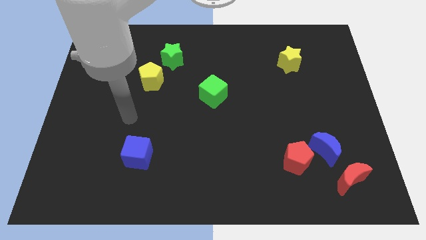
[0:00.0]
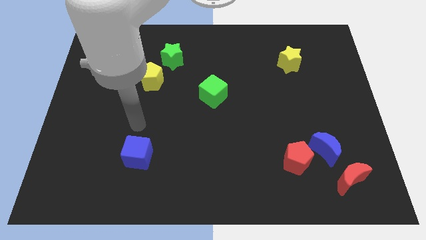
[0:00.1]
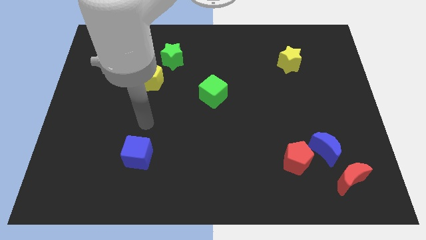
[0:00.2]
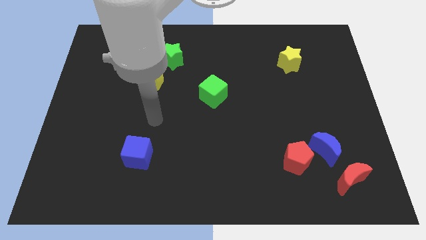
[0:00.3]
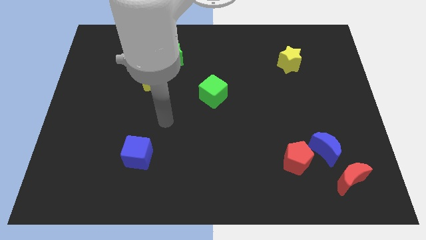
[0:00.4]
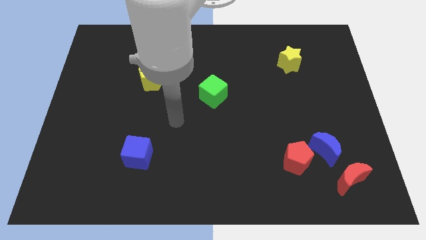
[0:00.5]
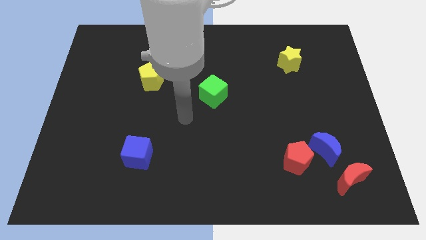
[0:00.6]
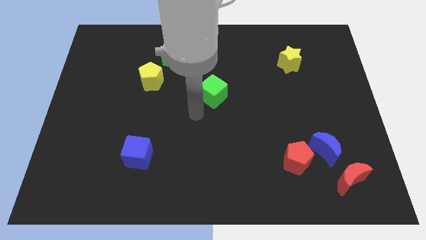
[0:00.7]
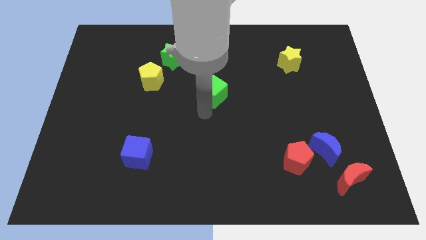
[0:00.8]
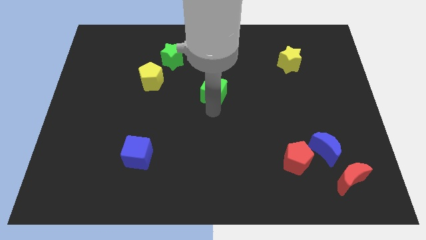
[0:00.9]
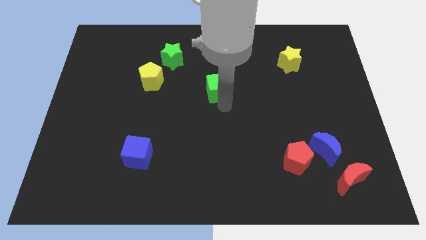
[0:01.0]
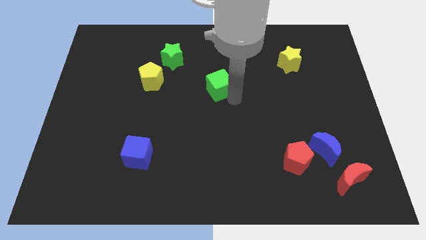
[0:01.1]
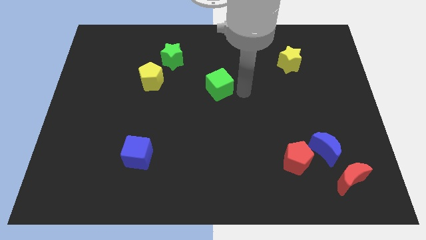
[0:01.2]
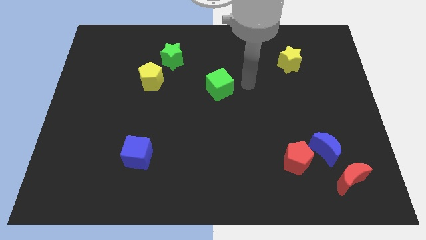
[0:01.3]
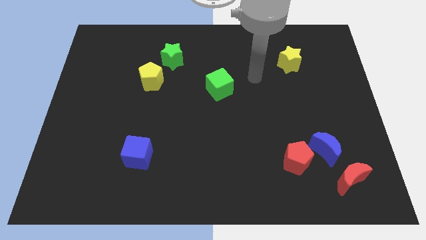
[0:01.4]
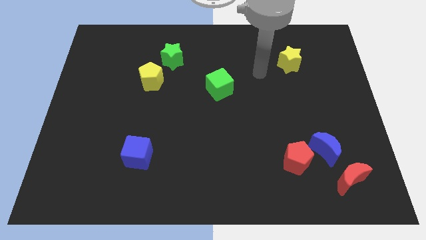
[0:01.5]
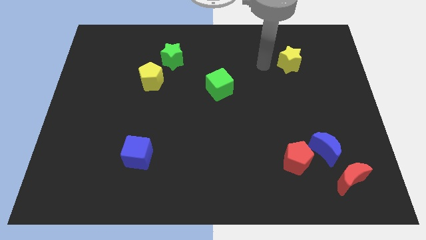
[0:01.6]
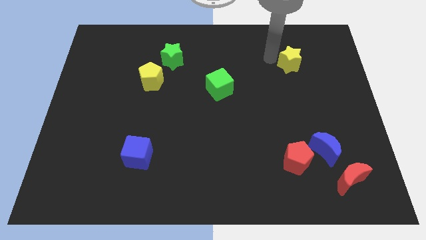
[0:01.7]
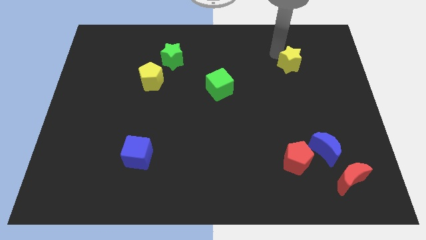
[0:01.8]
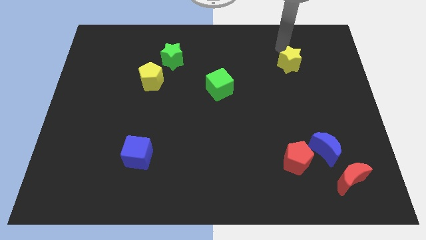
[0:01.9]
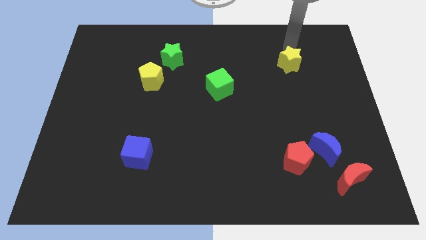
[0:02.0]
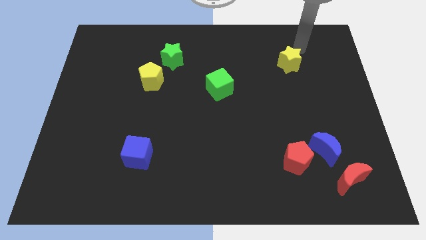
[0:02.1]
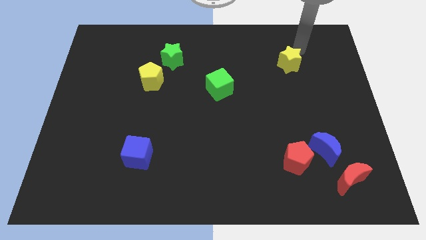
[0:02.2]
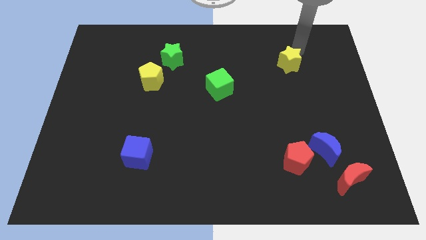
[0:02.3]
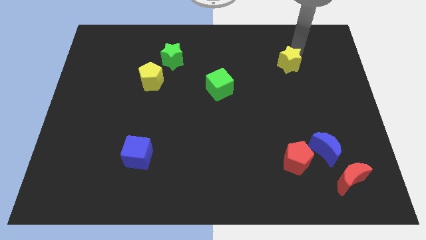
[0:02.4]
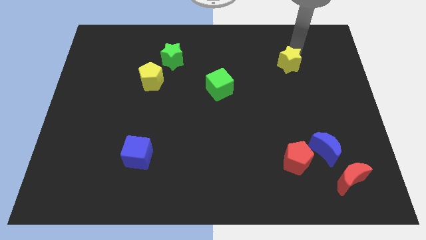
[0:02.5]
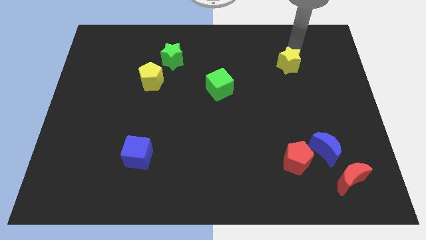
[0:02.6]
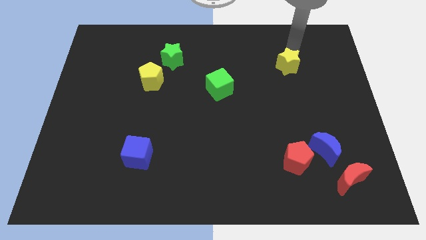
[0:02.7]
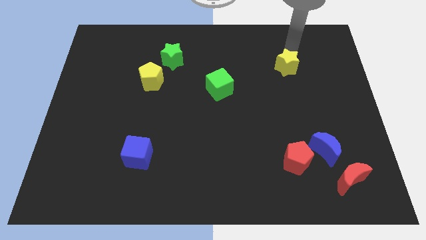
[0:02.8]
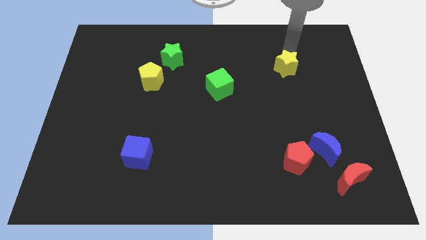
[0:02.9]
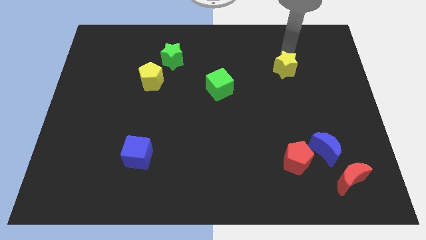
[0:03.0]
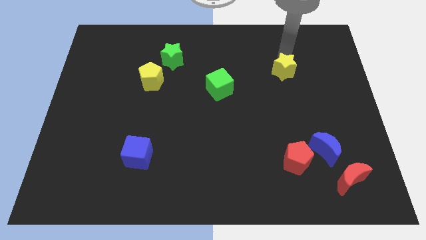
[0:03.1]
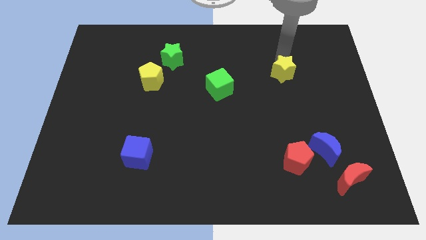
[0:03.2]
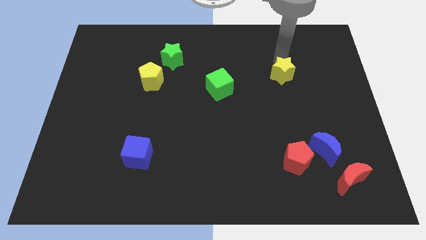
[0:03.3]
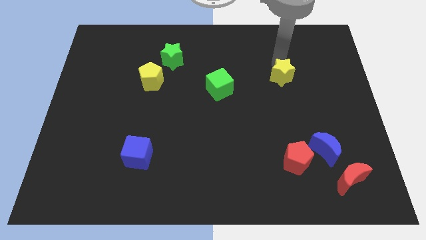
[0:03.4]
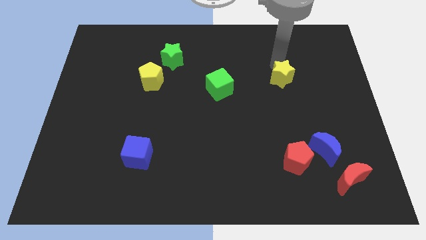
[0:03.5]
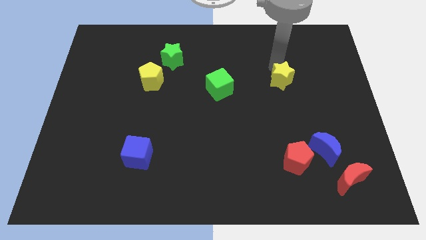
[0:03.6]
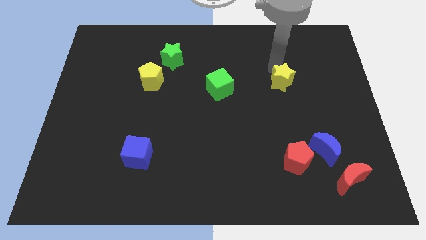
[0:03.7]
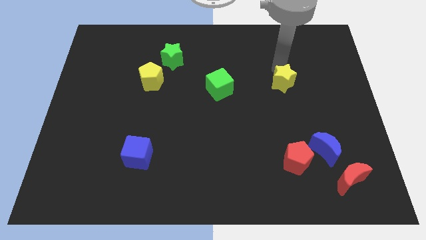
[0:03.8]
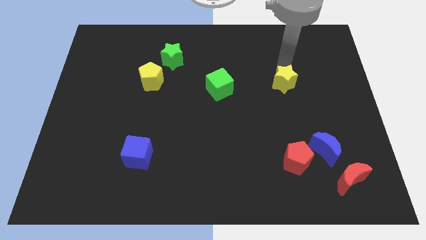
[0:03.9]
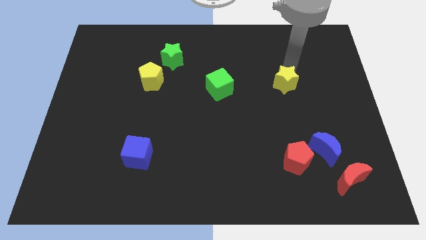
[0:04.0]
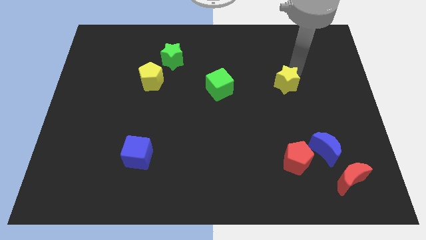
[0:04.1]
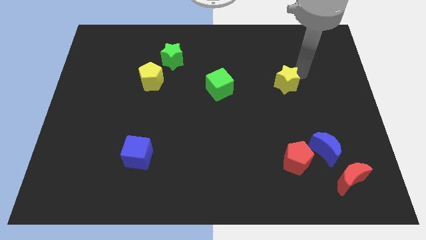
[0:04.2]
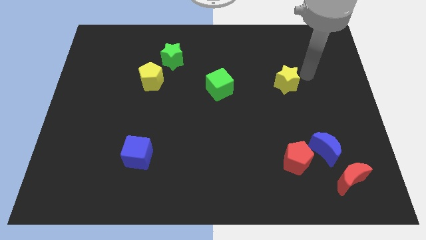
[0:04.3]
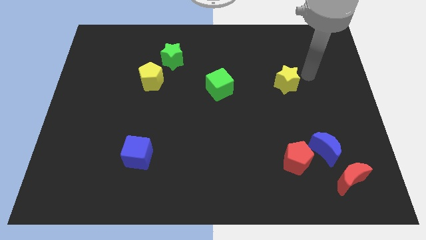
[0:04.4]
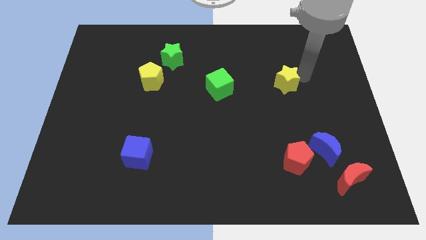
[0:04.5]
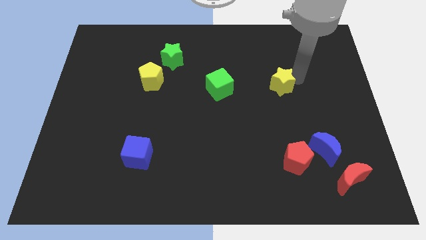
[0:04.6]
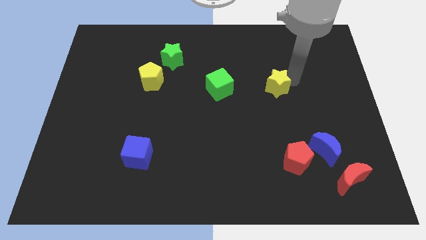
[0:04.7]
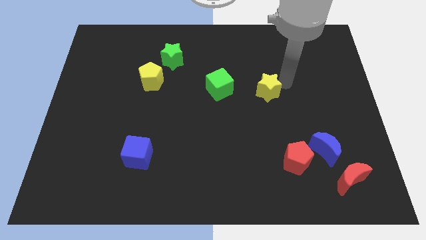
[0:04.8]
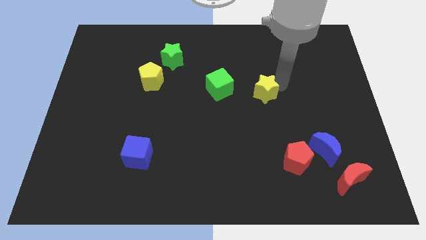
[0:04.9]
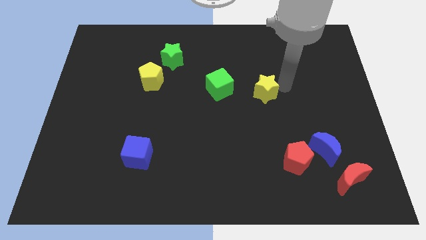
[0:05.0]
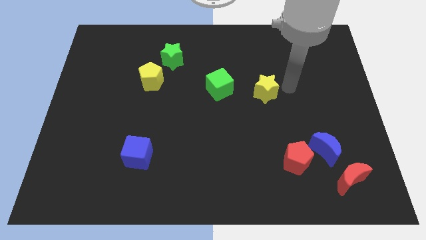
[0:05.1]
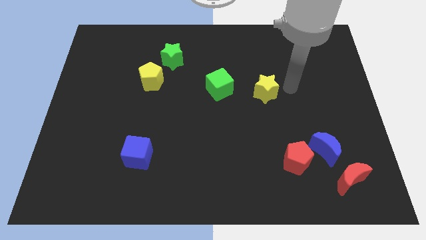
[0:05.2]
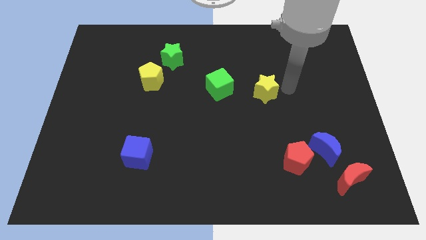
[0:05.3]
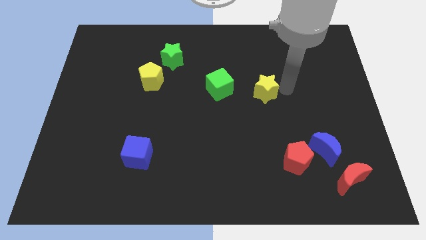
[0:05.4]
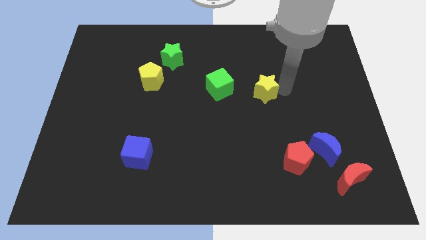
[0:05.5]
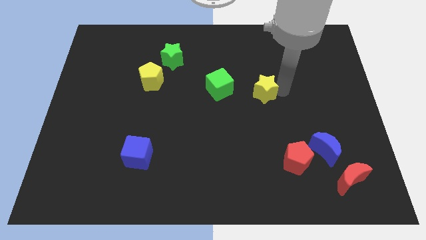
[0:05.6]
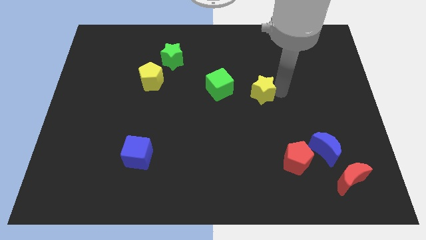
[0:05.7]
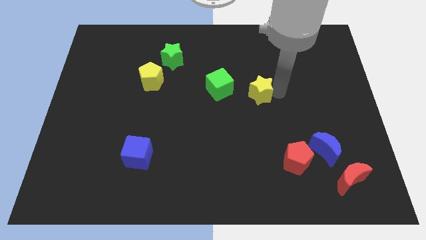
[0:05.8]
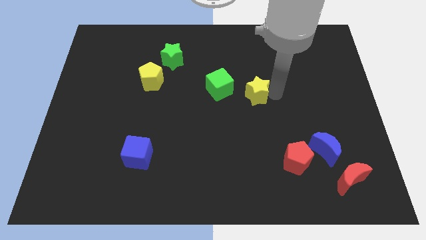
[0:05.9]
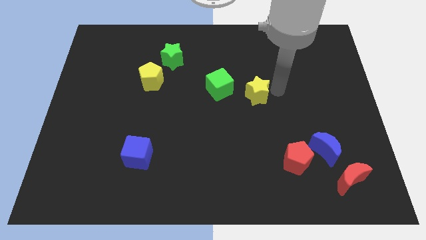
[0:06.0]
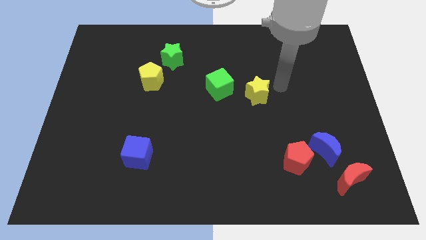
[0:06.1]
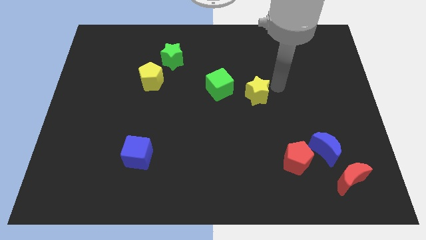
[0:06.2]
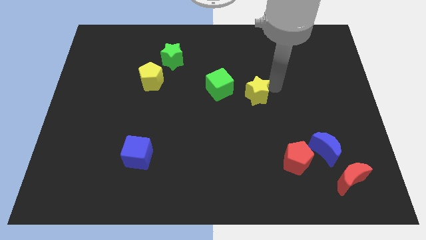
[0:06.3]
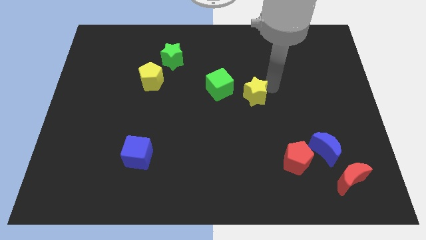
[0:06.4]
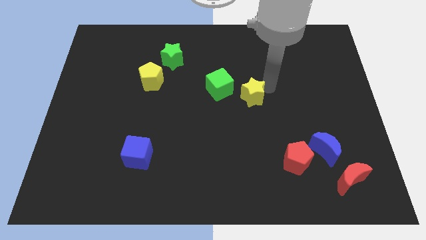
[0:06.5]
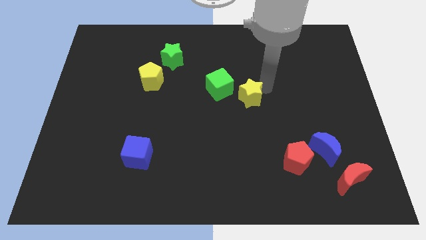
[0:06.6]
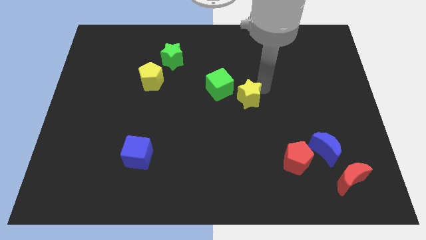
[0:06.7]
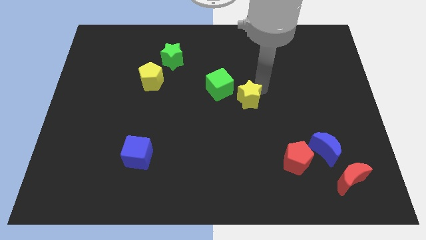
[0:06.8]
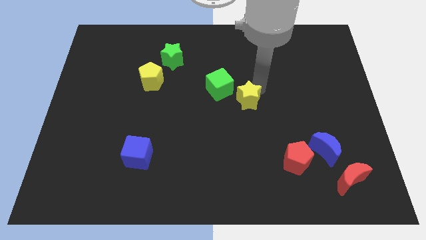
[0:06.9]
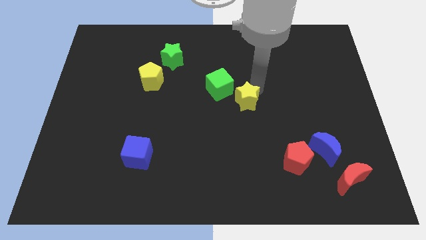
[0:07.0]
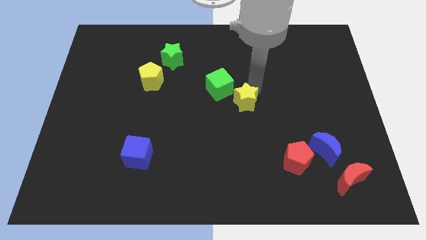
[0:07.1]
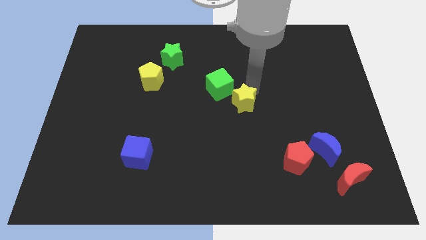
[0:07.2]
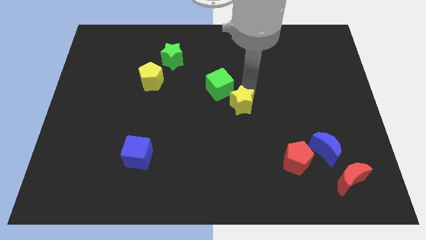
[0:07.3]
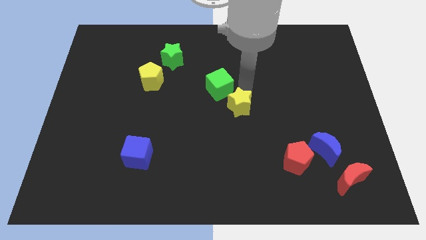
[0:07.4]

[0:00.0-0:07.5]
slide the yellow star diagonally downwards and to the left

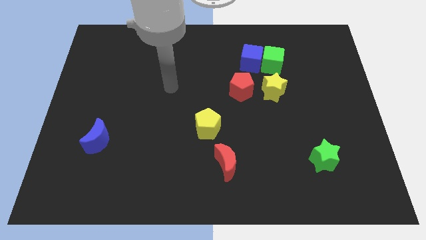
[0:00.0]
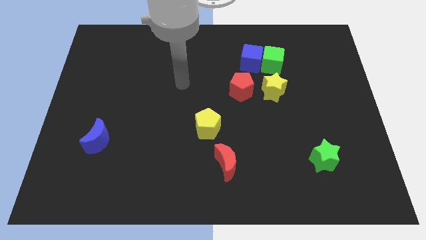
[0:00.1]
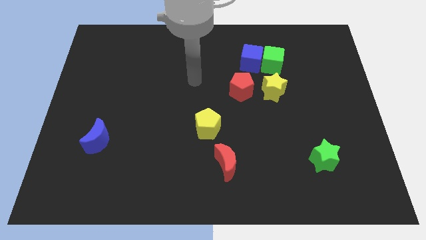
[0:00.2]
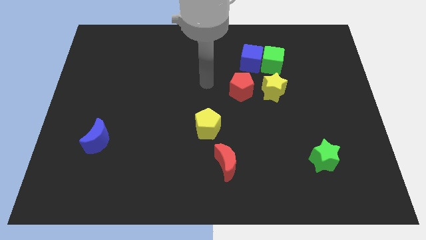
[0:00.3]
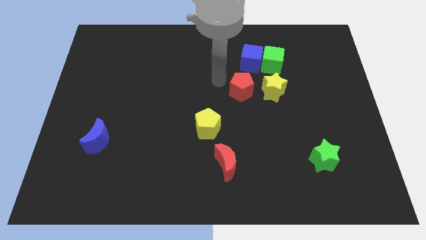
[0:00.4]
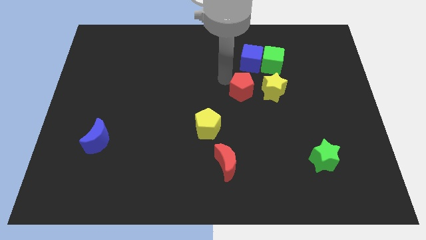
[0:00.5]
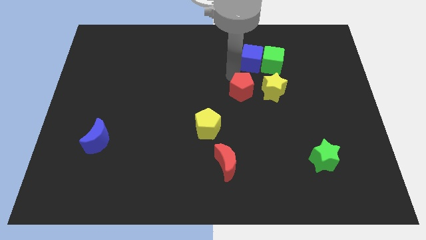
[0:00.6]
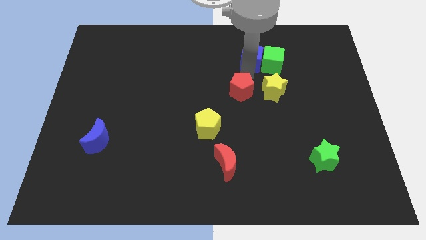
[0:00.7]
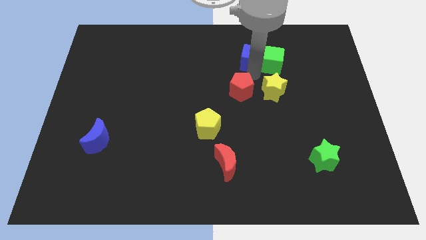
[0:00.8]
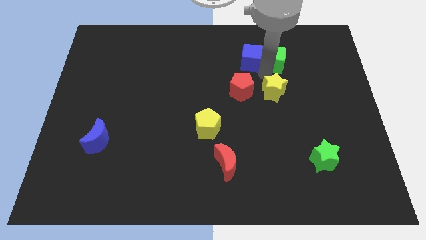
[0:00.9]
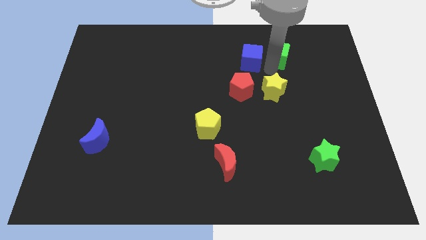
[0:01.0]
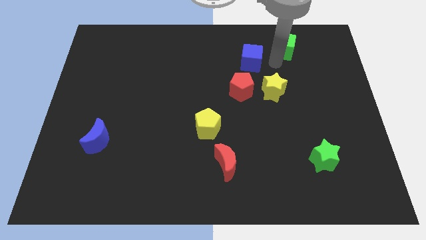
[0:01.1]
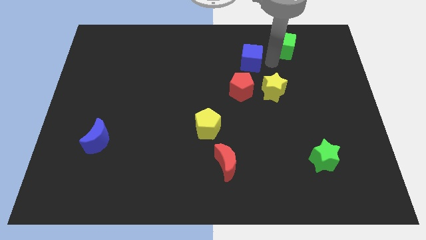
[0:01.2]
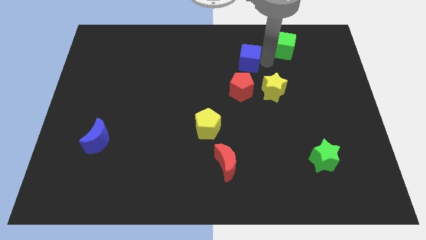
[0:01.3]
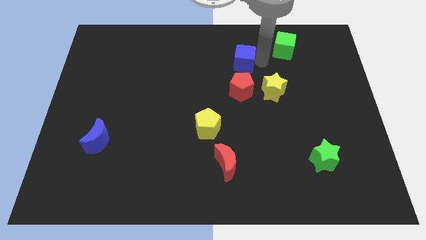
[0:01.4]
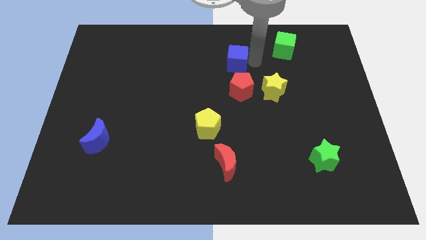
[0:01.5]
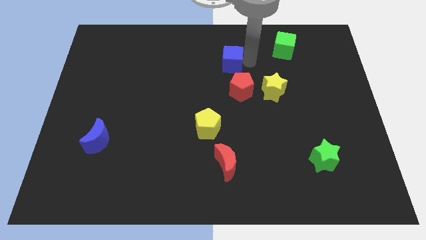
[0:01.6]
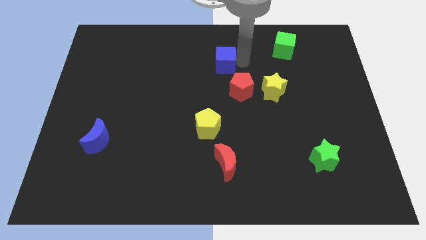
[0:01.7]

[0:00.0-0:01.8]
slightly move the blue cube to the left
